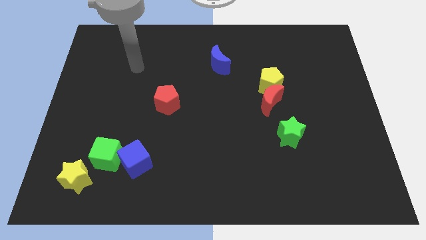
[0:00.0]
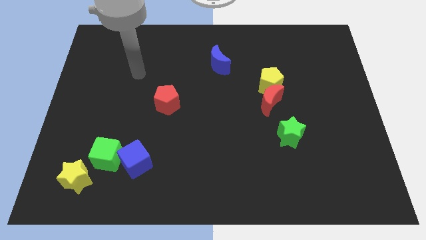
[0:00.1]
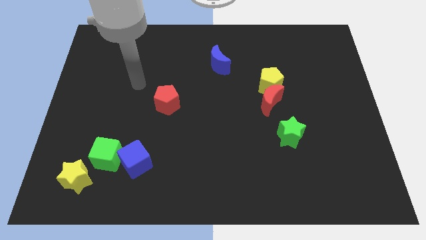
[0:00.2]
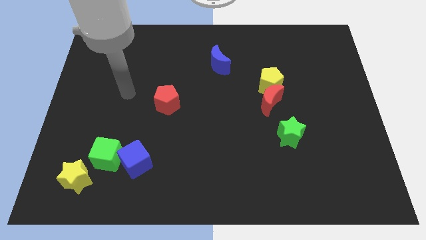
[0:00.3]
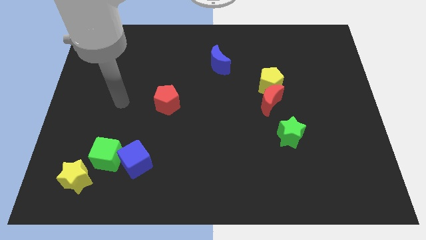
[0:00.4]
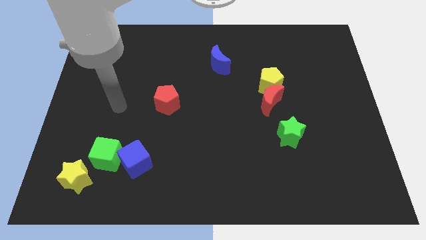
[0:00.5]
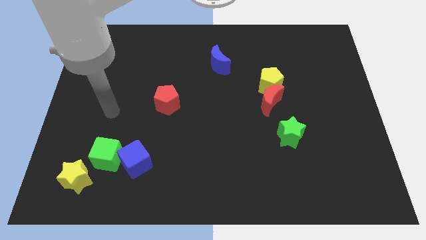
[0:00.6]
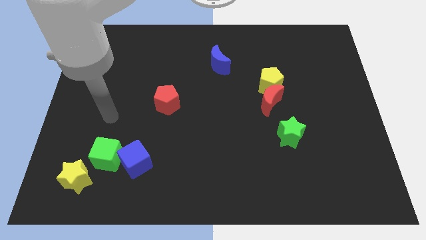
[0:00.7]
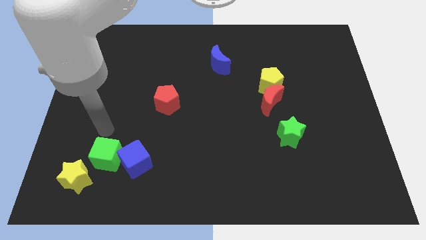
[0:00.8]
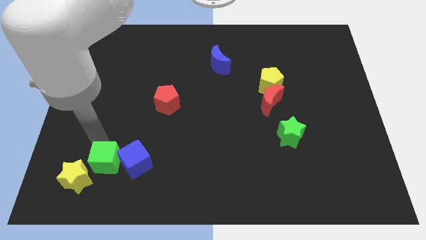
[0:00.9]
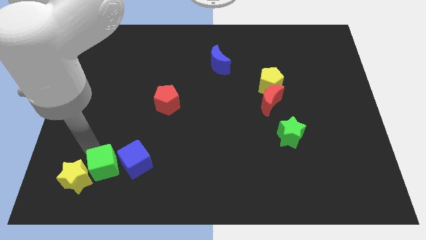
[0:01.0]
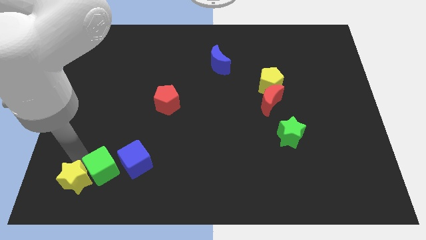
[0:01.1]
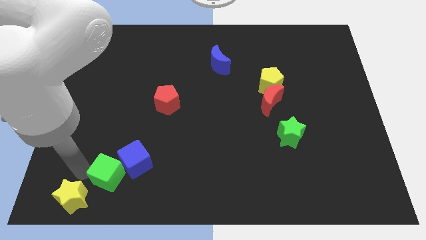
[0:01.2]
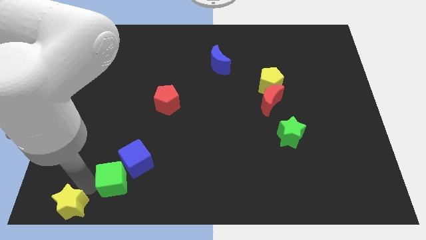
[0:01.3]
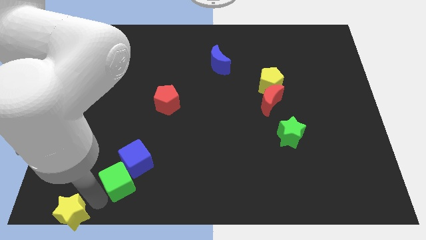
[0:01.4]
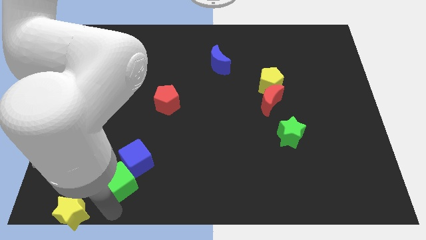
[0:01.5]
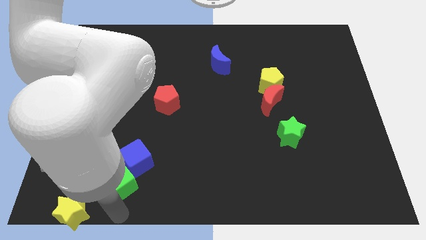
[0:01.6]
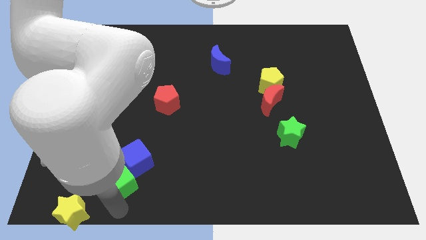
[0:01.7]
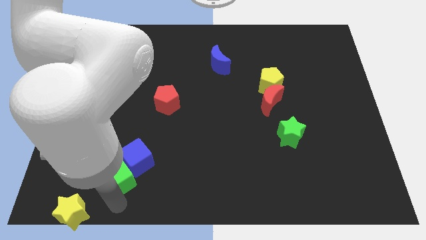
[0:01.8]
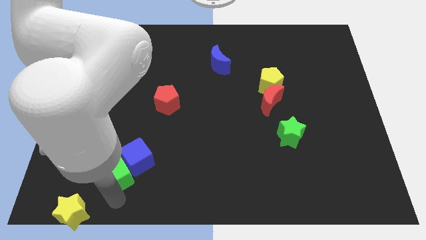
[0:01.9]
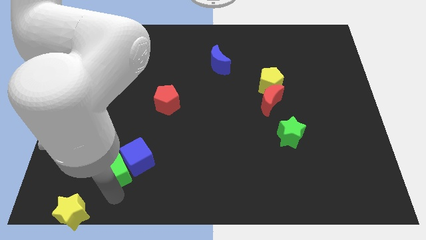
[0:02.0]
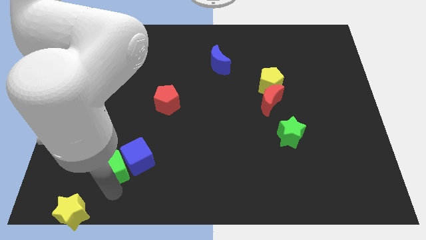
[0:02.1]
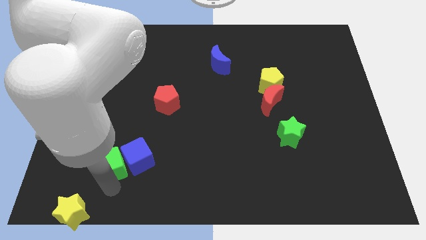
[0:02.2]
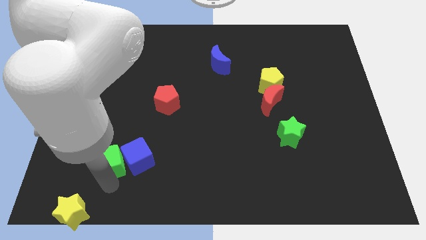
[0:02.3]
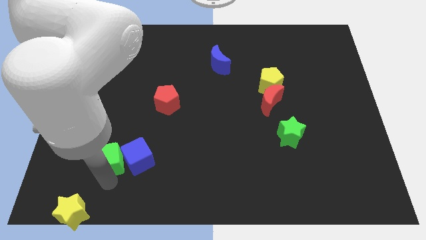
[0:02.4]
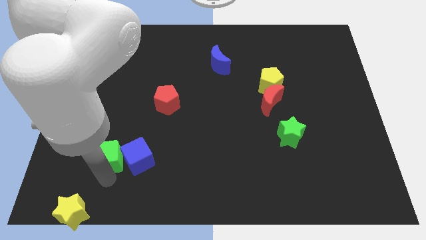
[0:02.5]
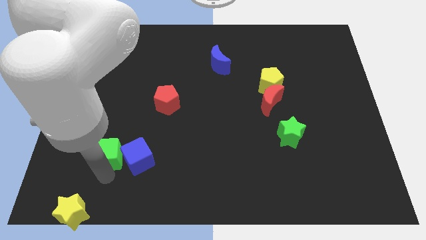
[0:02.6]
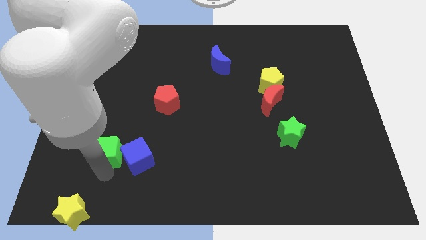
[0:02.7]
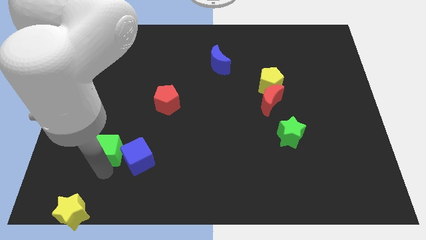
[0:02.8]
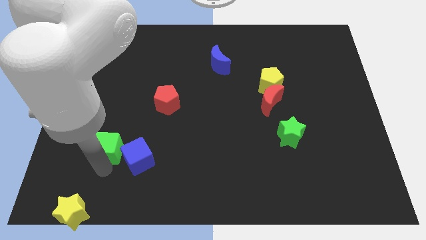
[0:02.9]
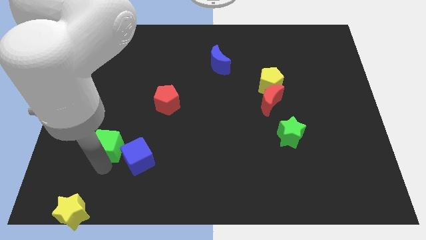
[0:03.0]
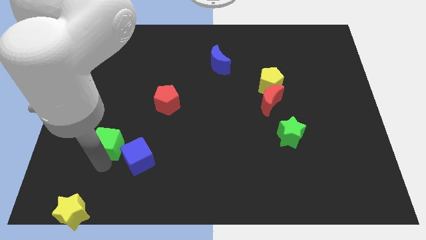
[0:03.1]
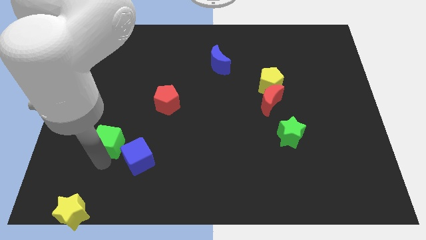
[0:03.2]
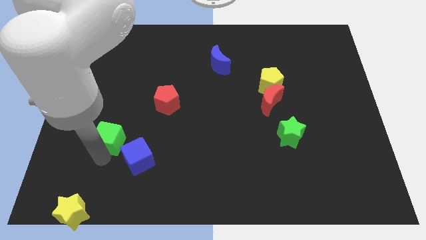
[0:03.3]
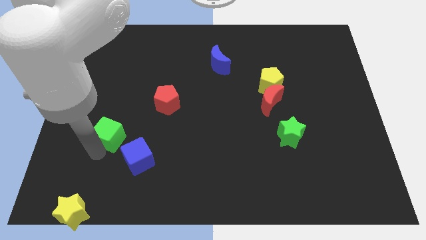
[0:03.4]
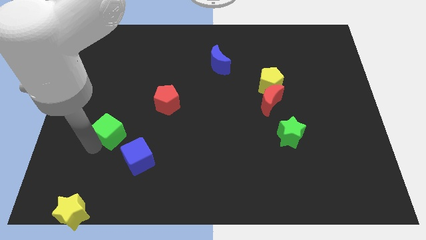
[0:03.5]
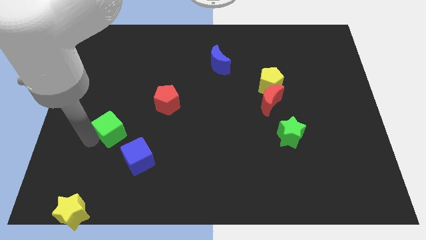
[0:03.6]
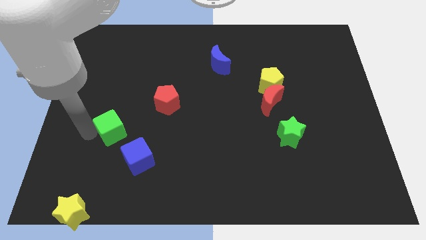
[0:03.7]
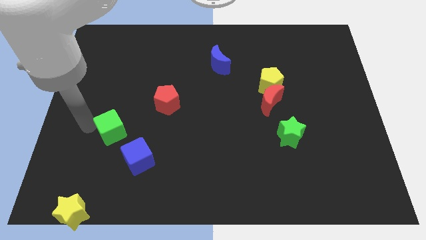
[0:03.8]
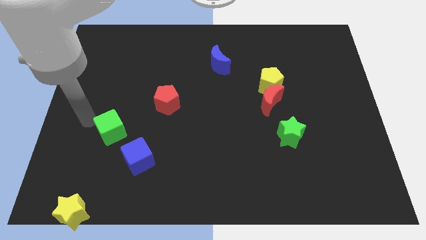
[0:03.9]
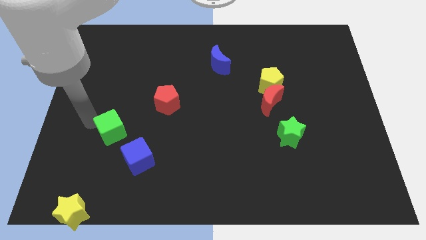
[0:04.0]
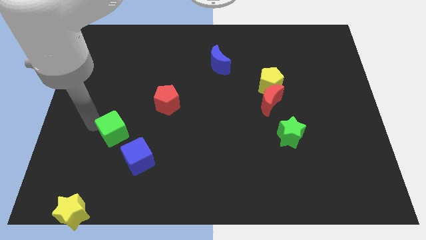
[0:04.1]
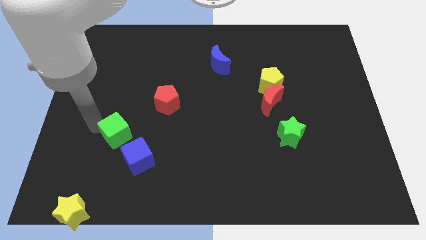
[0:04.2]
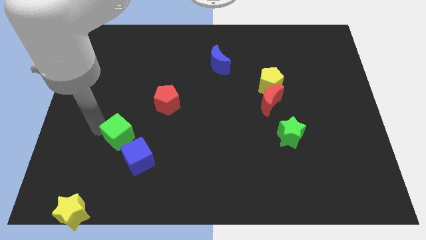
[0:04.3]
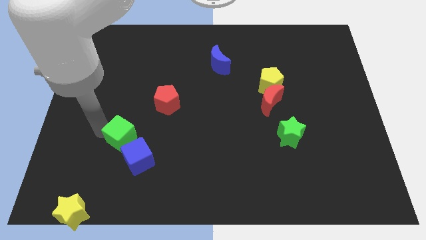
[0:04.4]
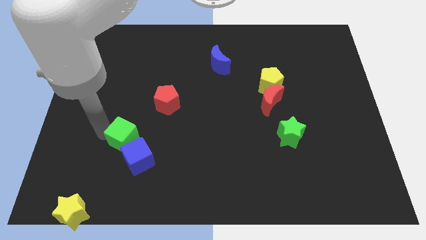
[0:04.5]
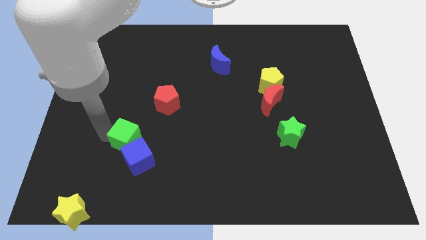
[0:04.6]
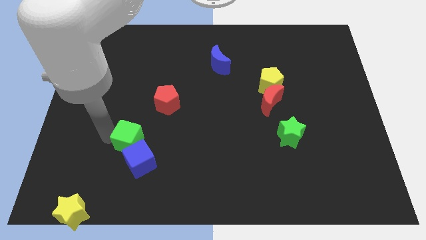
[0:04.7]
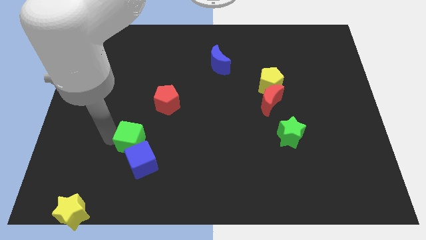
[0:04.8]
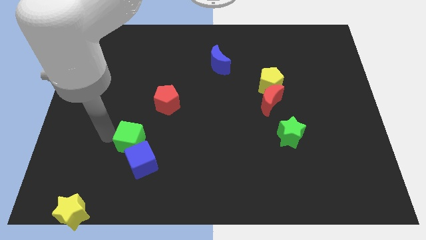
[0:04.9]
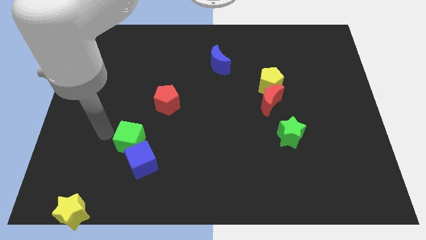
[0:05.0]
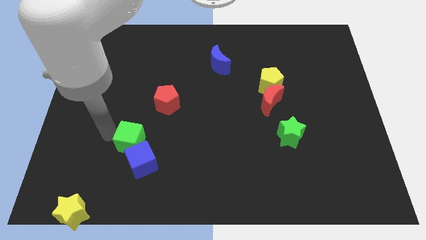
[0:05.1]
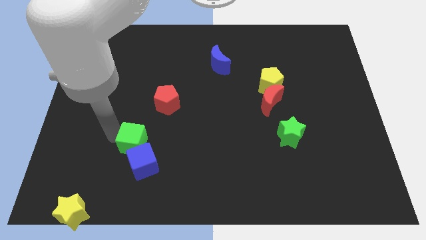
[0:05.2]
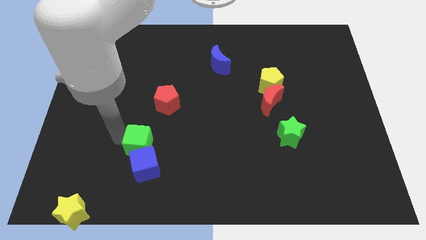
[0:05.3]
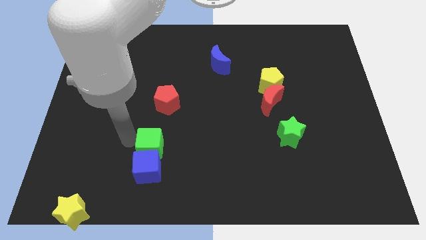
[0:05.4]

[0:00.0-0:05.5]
slightly push the green cube to the right

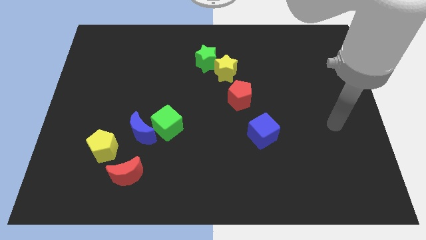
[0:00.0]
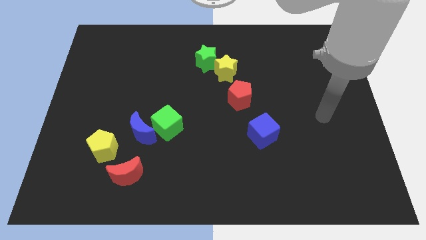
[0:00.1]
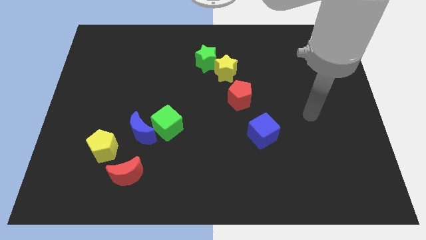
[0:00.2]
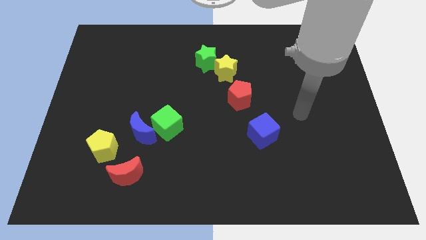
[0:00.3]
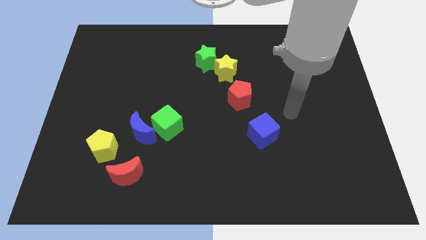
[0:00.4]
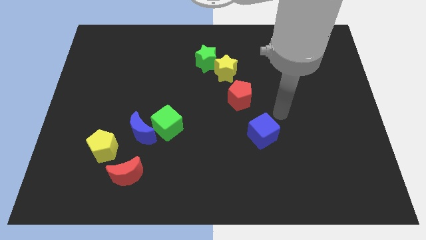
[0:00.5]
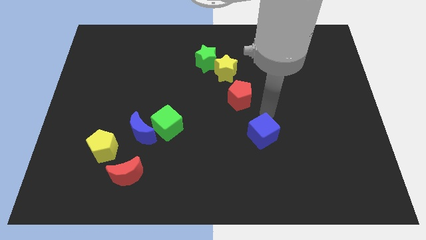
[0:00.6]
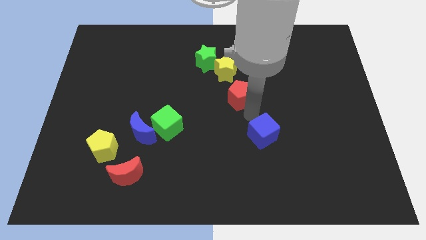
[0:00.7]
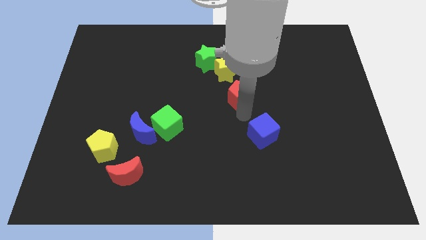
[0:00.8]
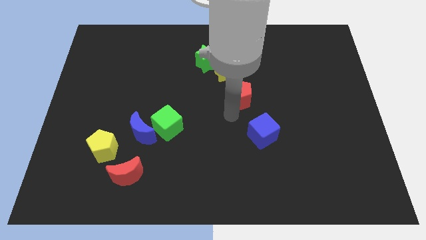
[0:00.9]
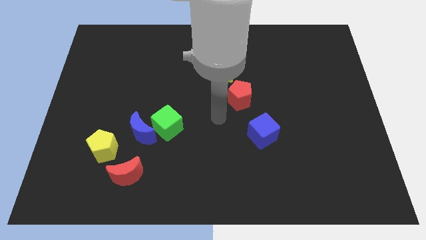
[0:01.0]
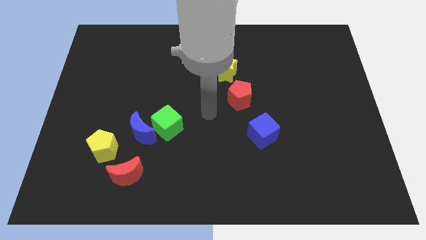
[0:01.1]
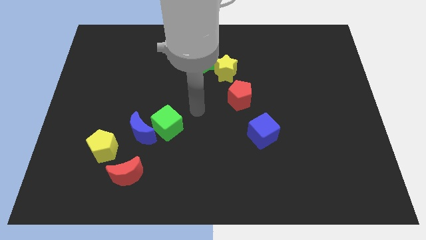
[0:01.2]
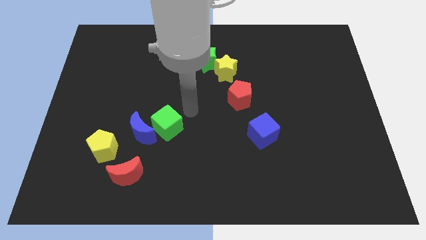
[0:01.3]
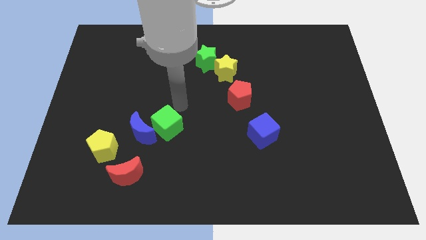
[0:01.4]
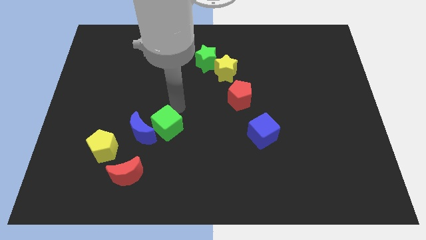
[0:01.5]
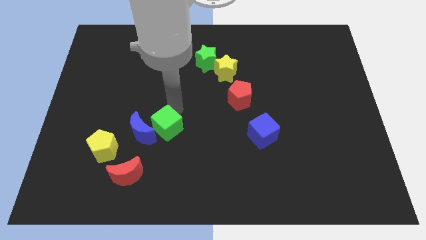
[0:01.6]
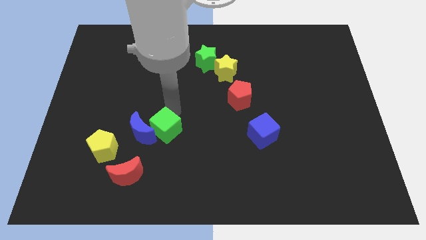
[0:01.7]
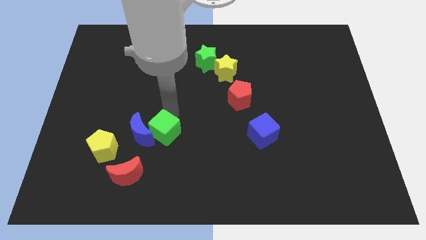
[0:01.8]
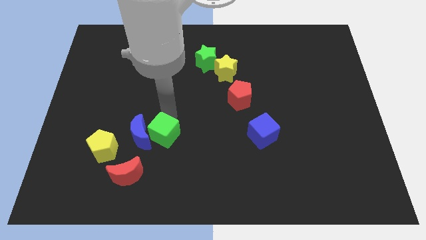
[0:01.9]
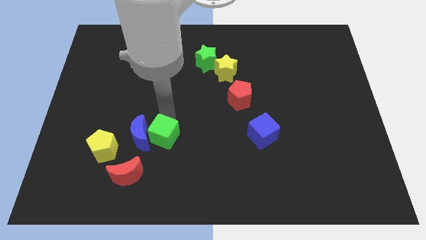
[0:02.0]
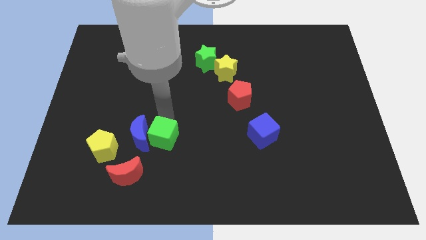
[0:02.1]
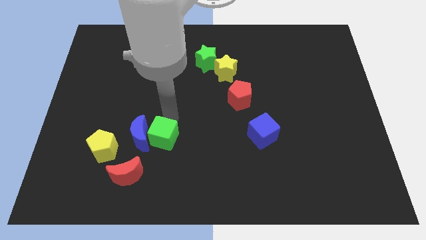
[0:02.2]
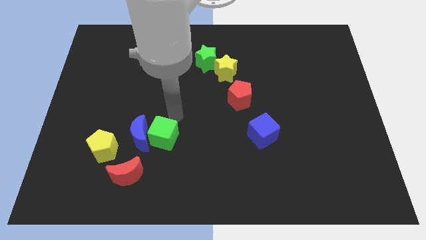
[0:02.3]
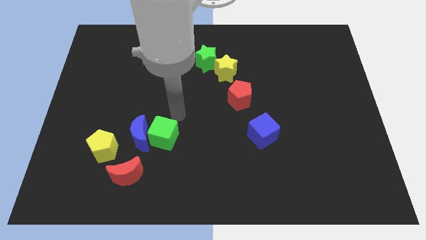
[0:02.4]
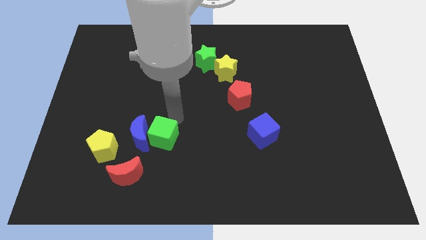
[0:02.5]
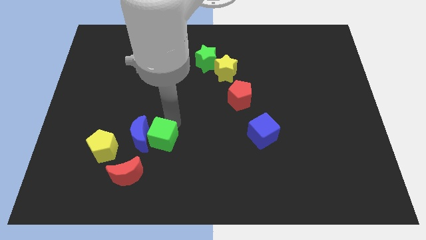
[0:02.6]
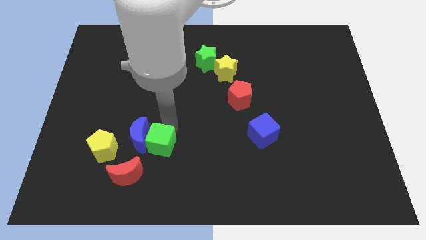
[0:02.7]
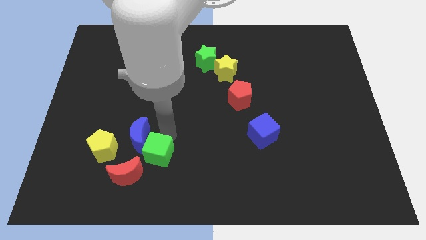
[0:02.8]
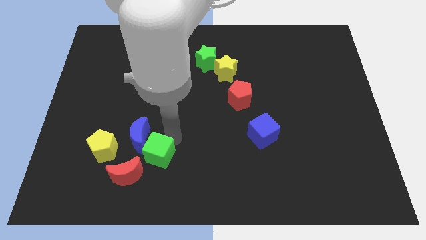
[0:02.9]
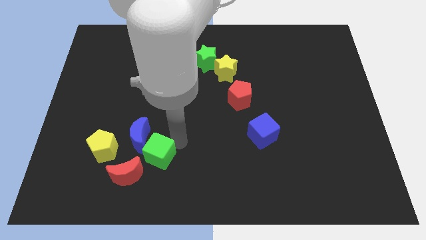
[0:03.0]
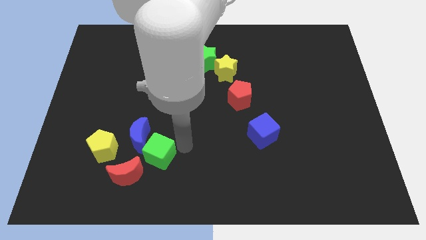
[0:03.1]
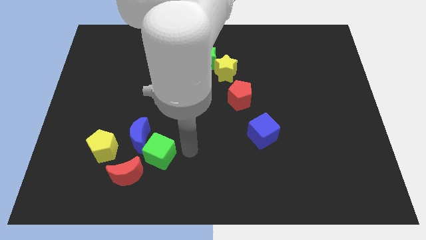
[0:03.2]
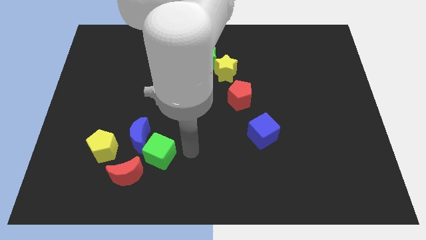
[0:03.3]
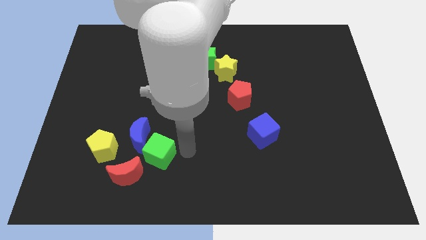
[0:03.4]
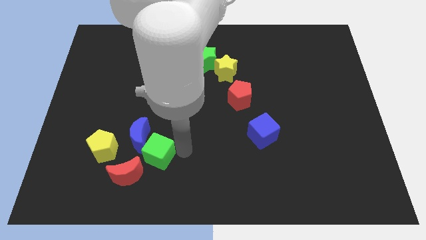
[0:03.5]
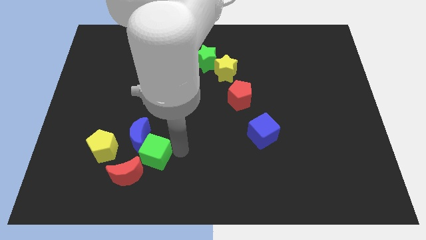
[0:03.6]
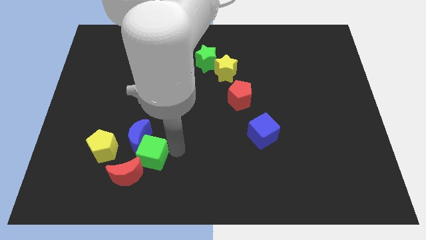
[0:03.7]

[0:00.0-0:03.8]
push the green cube somewhat diagonally down and left
